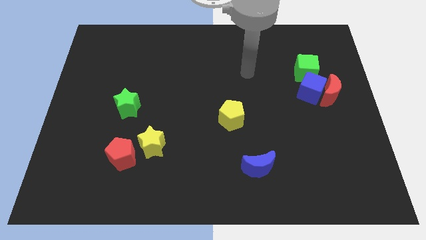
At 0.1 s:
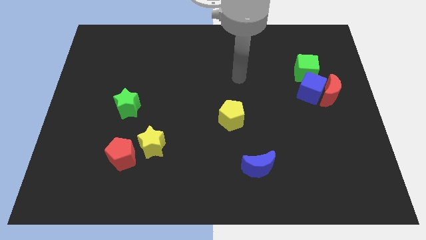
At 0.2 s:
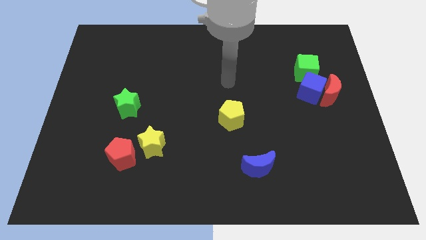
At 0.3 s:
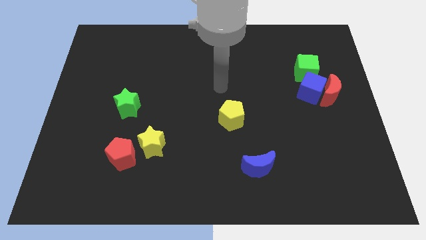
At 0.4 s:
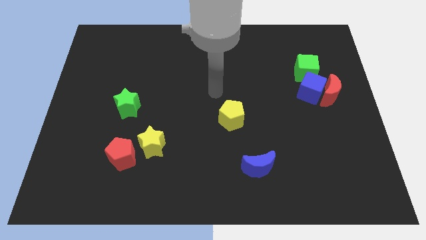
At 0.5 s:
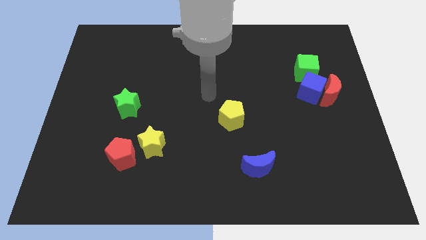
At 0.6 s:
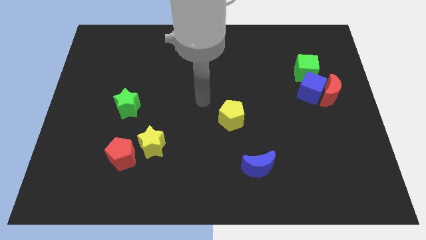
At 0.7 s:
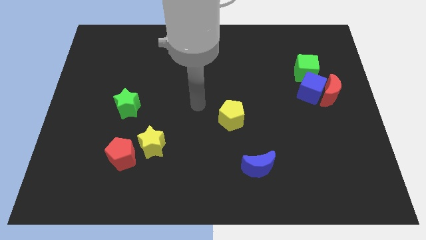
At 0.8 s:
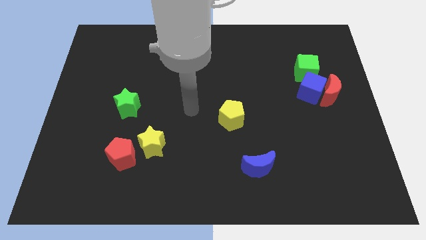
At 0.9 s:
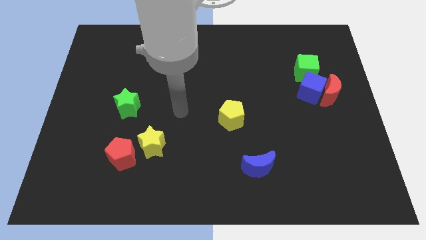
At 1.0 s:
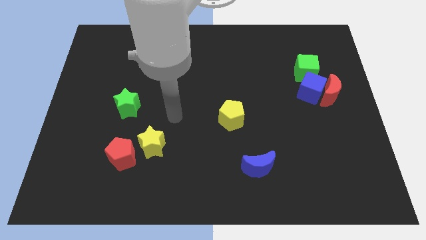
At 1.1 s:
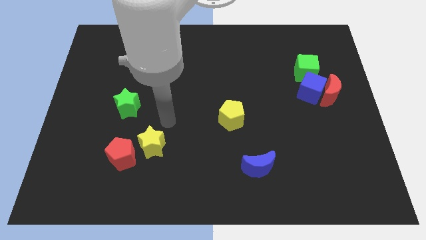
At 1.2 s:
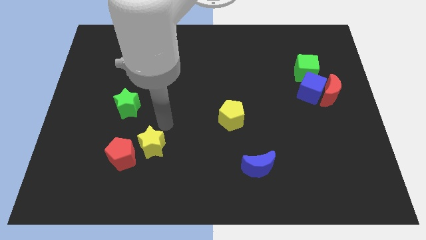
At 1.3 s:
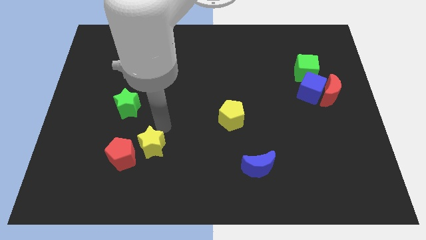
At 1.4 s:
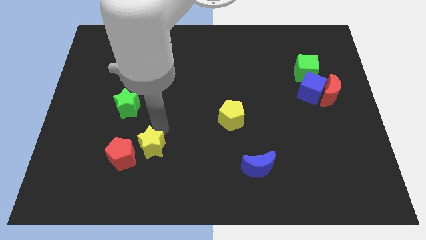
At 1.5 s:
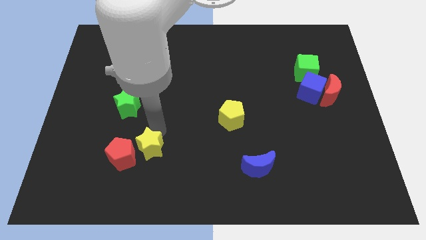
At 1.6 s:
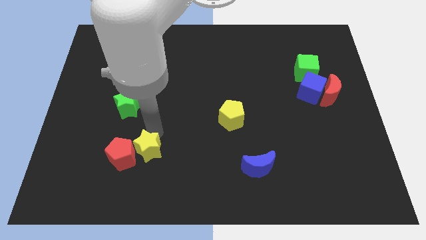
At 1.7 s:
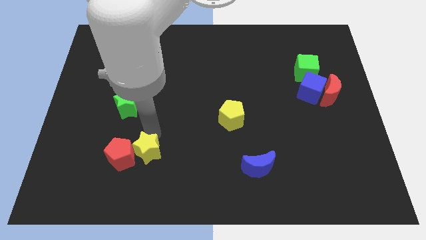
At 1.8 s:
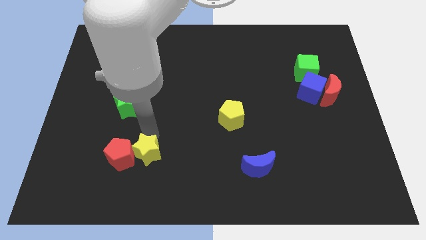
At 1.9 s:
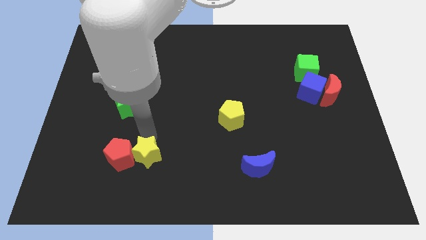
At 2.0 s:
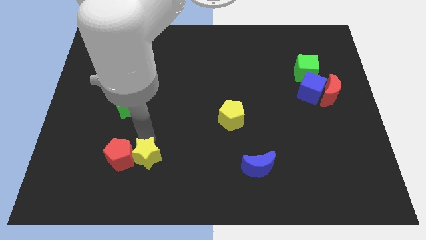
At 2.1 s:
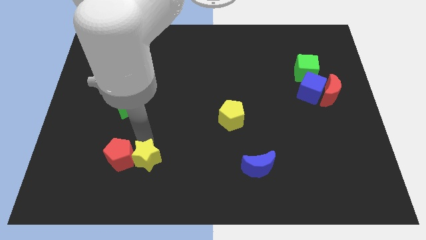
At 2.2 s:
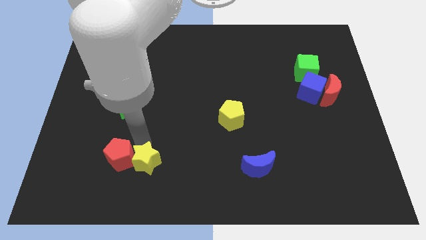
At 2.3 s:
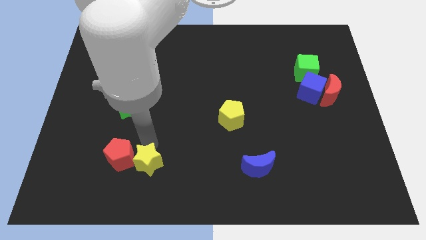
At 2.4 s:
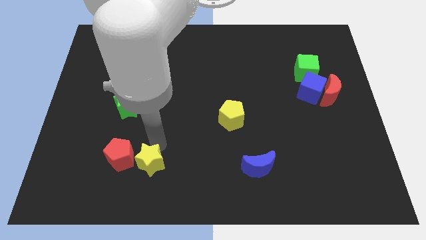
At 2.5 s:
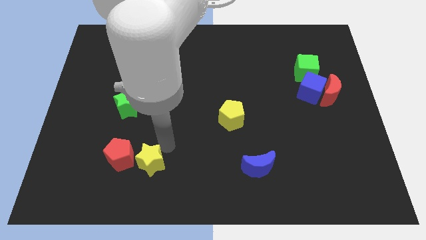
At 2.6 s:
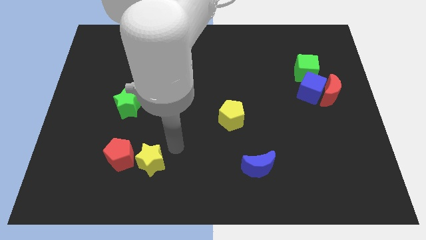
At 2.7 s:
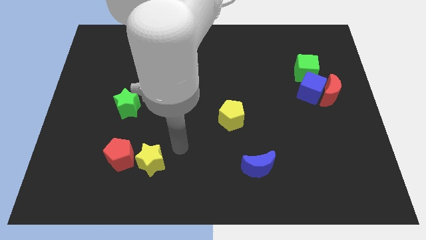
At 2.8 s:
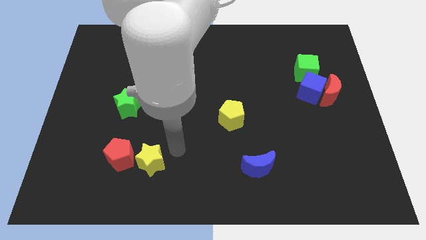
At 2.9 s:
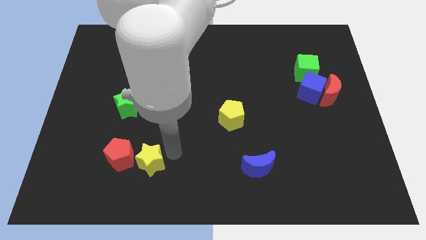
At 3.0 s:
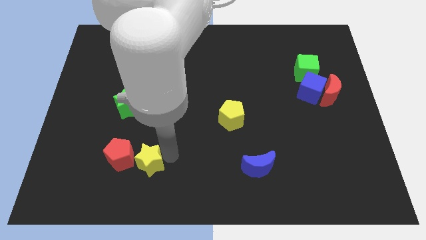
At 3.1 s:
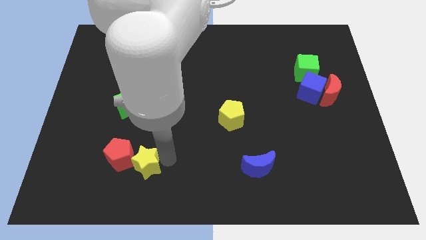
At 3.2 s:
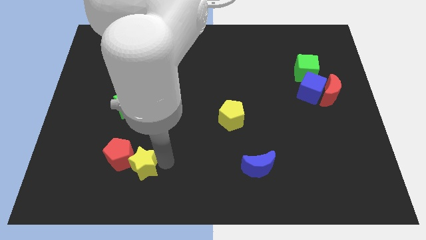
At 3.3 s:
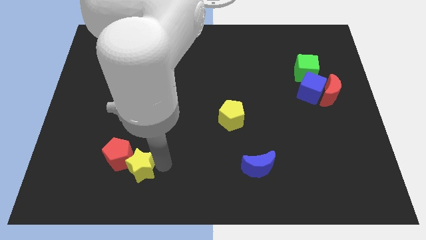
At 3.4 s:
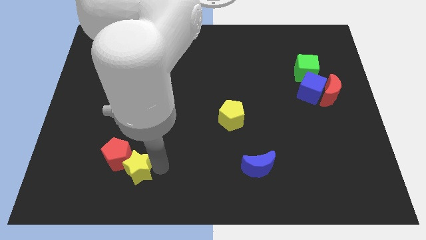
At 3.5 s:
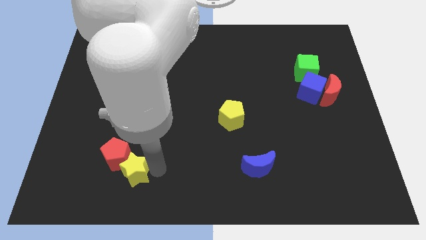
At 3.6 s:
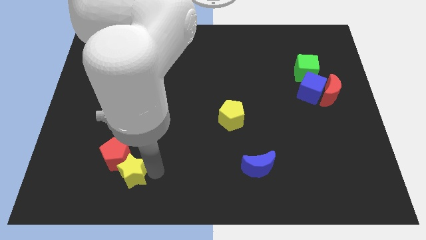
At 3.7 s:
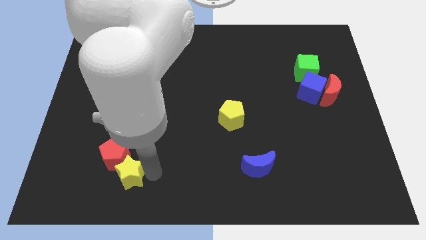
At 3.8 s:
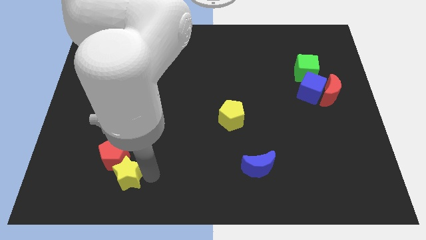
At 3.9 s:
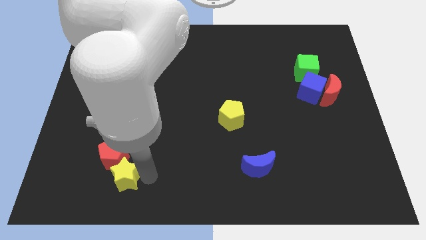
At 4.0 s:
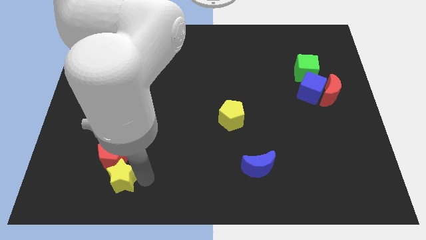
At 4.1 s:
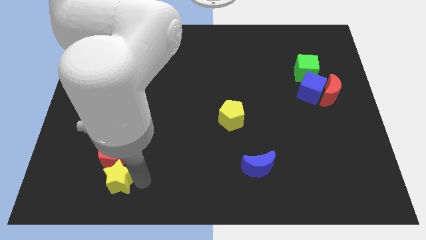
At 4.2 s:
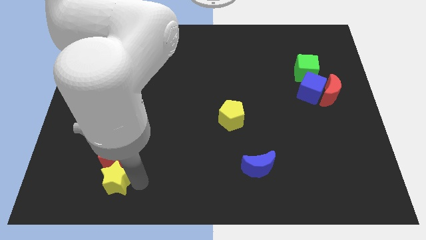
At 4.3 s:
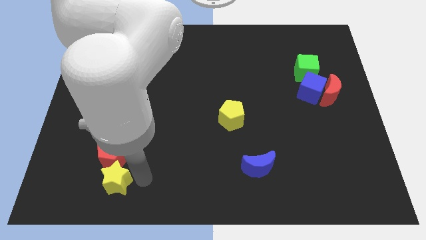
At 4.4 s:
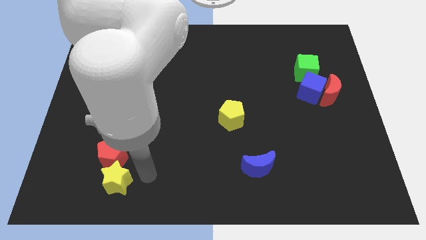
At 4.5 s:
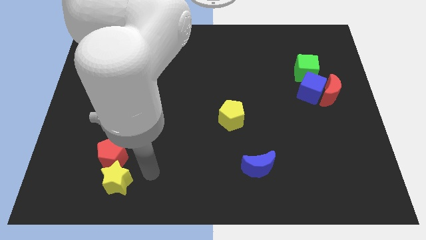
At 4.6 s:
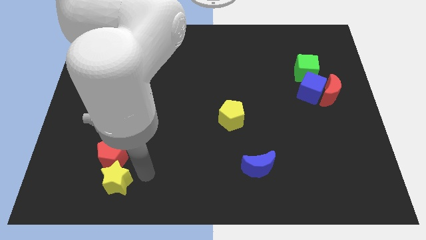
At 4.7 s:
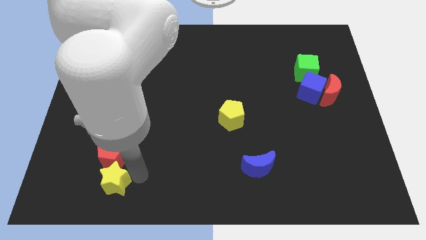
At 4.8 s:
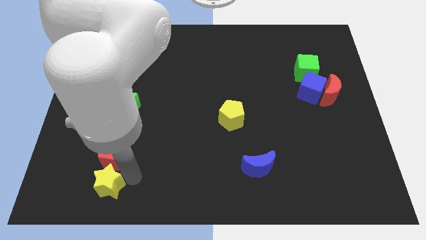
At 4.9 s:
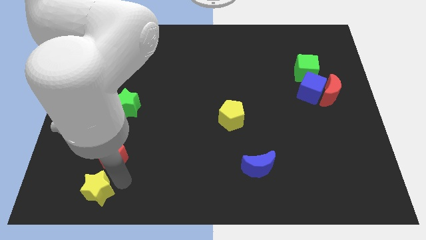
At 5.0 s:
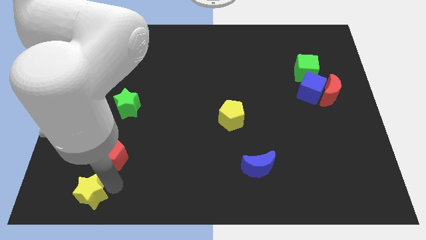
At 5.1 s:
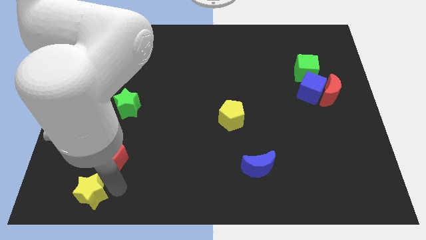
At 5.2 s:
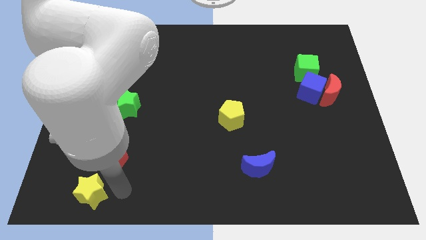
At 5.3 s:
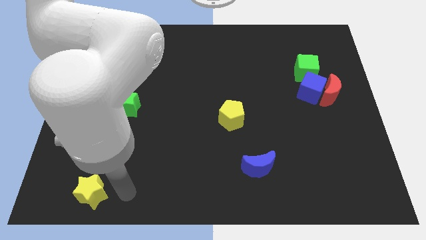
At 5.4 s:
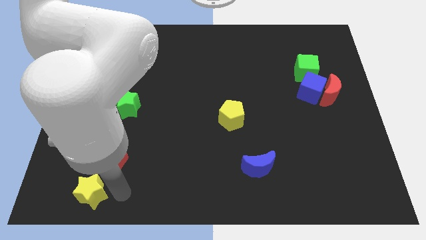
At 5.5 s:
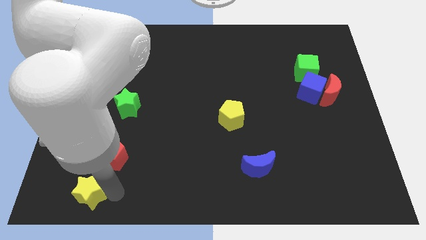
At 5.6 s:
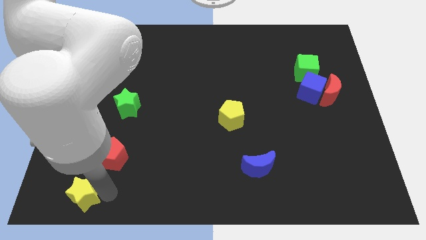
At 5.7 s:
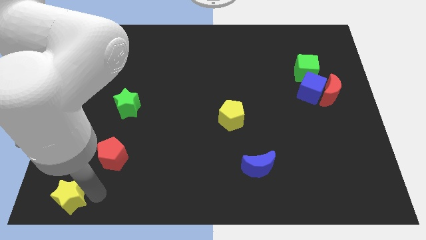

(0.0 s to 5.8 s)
put the yellow star to the lower left corner
